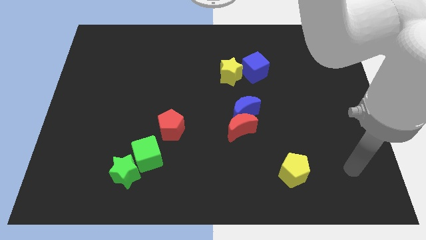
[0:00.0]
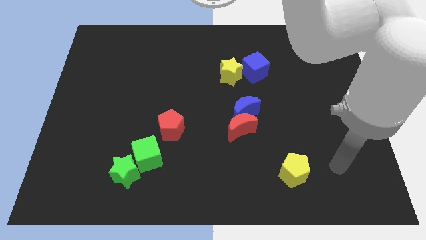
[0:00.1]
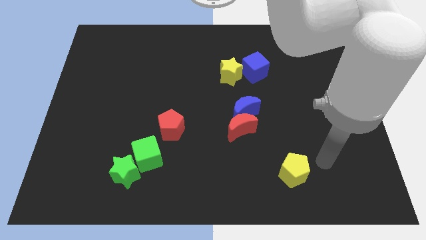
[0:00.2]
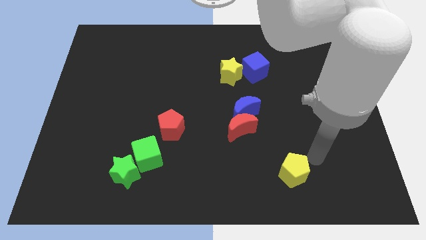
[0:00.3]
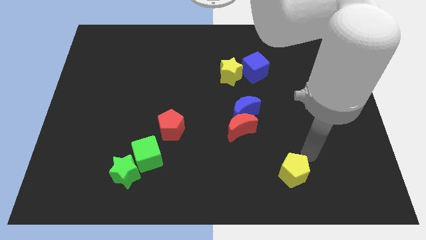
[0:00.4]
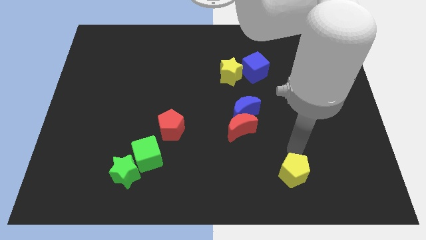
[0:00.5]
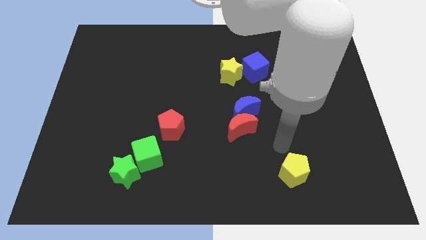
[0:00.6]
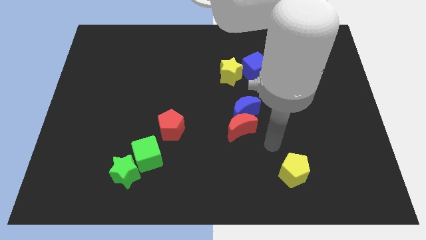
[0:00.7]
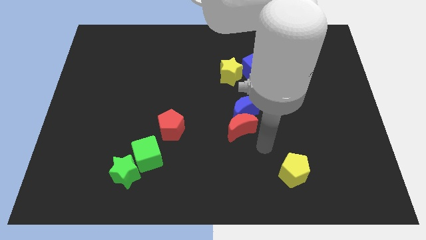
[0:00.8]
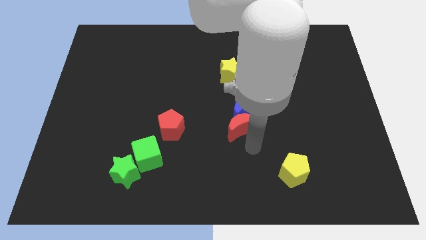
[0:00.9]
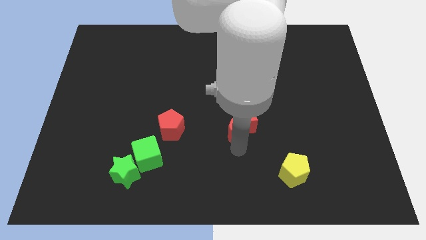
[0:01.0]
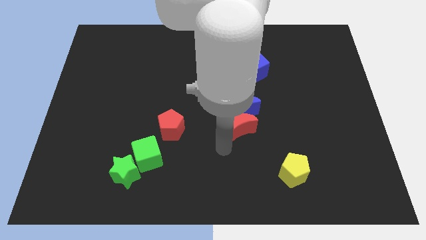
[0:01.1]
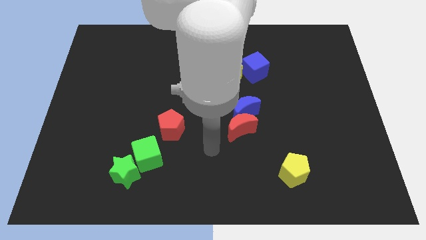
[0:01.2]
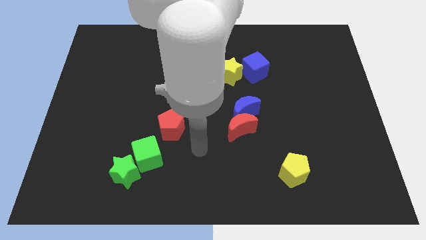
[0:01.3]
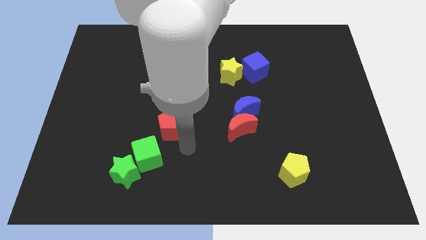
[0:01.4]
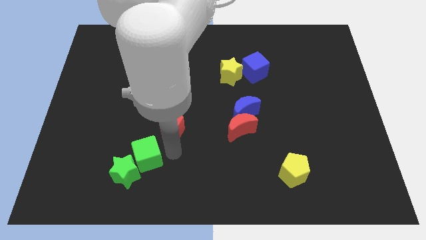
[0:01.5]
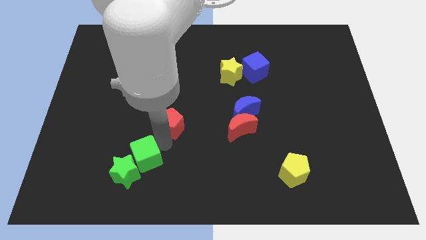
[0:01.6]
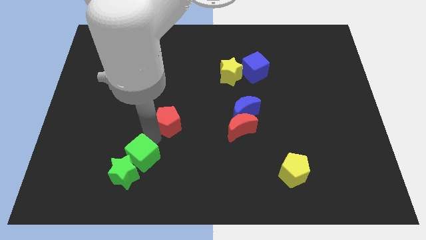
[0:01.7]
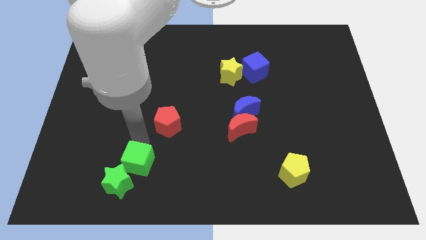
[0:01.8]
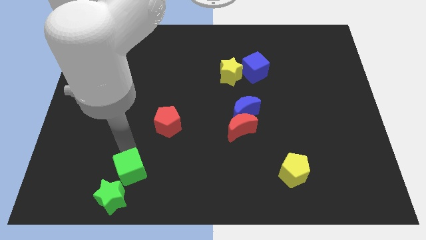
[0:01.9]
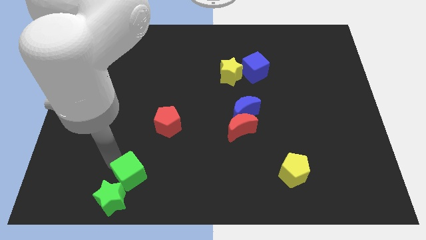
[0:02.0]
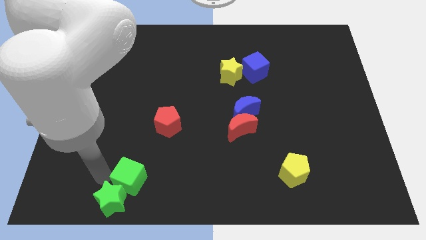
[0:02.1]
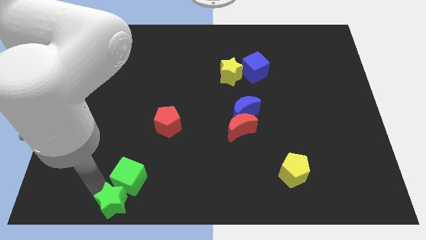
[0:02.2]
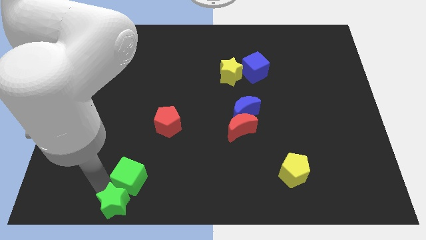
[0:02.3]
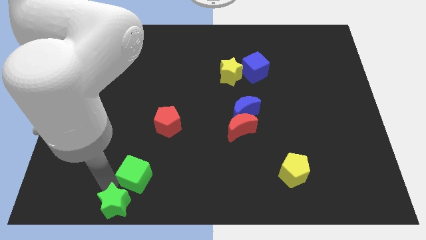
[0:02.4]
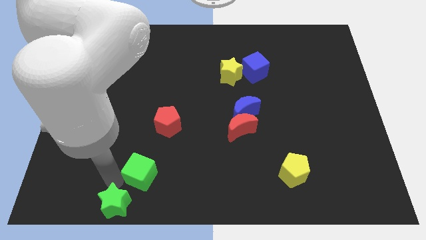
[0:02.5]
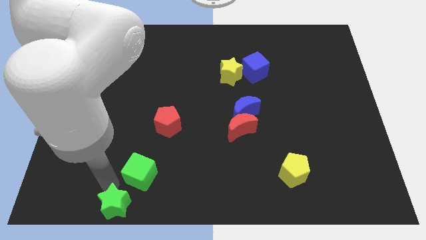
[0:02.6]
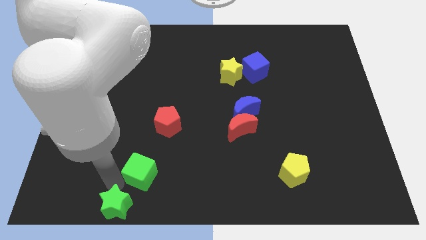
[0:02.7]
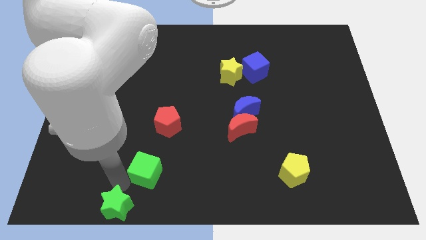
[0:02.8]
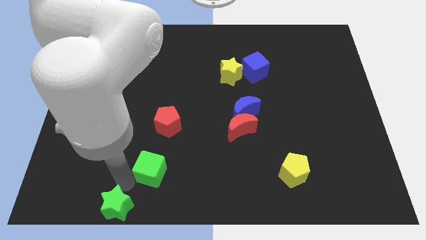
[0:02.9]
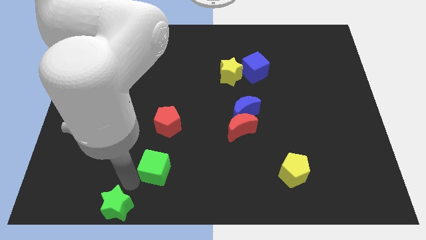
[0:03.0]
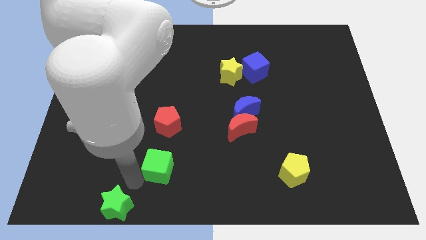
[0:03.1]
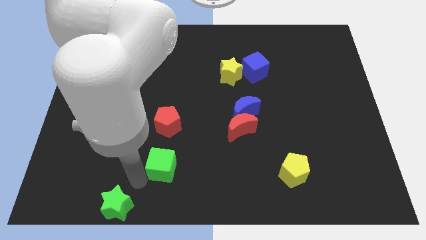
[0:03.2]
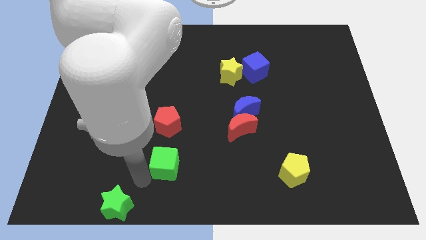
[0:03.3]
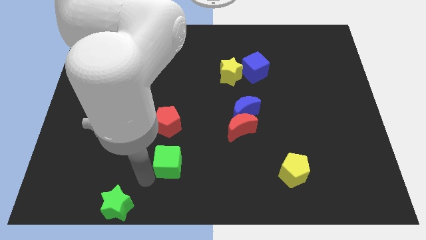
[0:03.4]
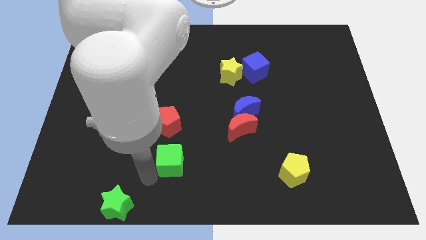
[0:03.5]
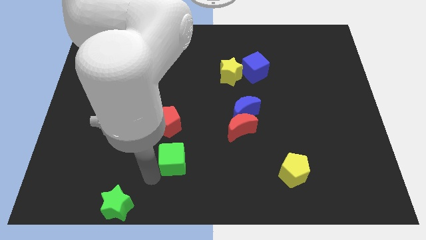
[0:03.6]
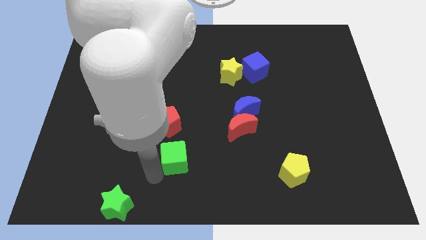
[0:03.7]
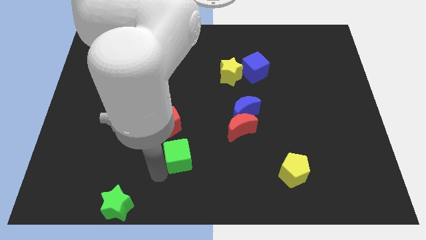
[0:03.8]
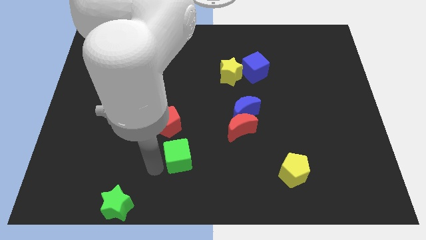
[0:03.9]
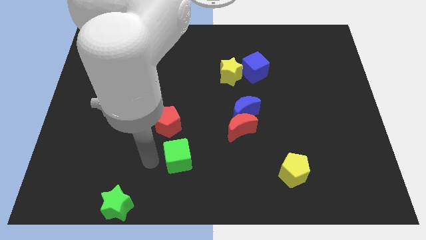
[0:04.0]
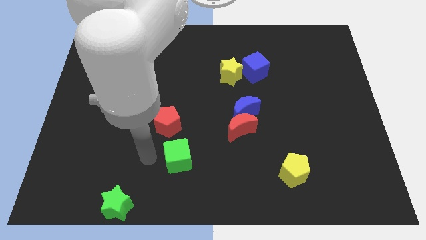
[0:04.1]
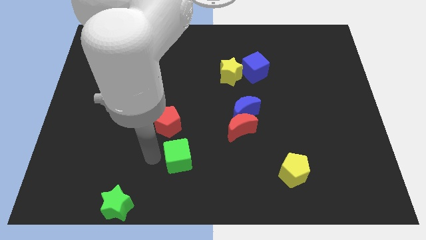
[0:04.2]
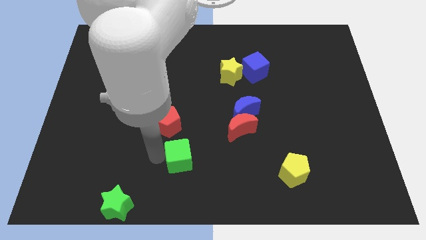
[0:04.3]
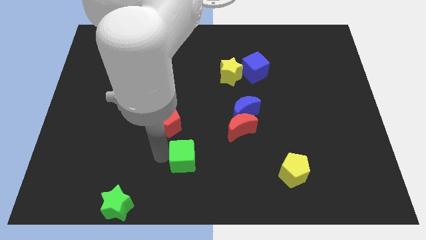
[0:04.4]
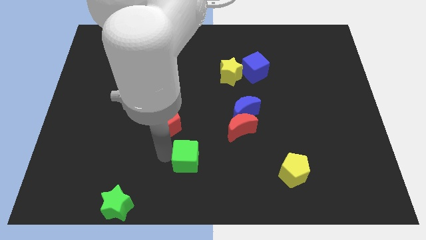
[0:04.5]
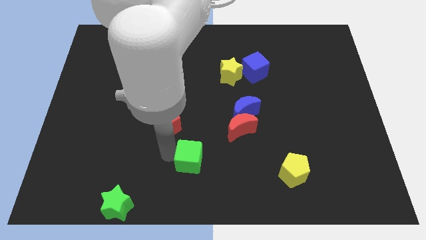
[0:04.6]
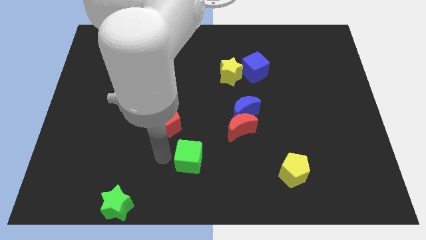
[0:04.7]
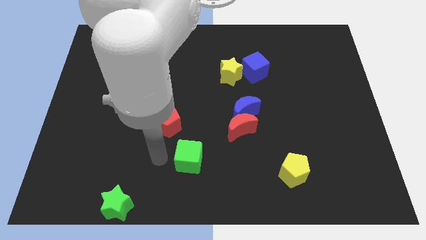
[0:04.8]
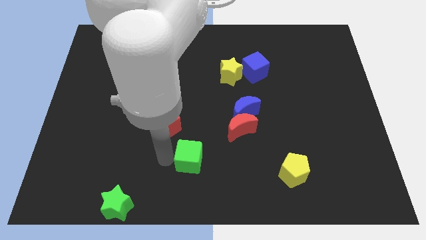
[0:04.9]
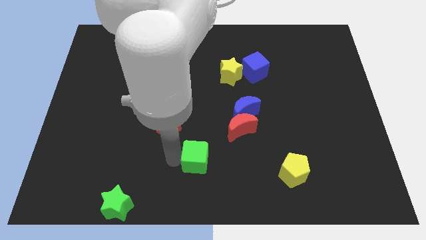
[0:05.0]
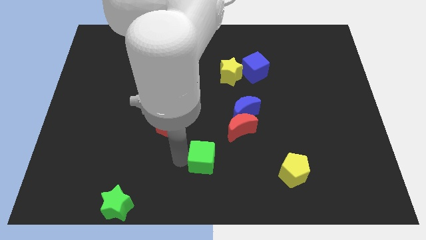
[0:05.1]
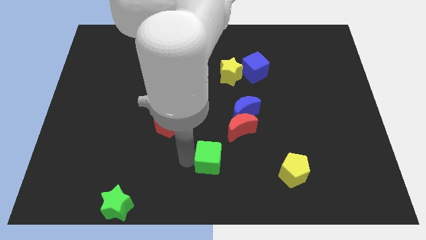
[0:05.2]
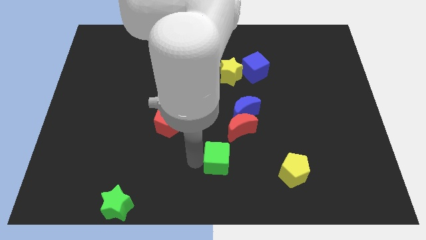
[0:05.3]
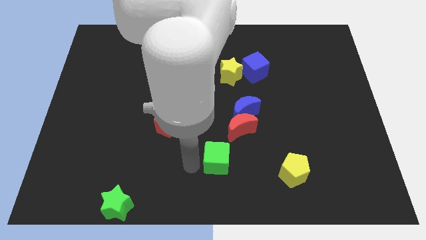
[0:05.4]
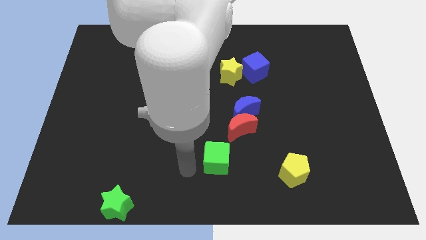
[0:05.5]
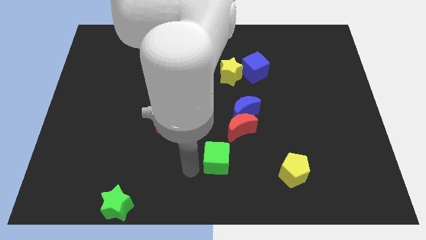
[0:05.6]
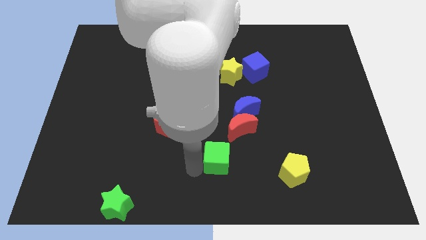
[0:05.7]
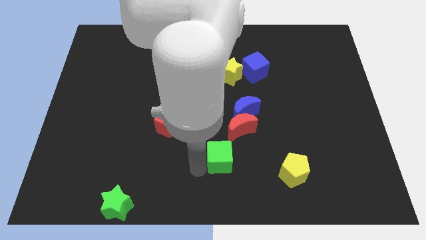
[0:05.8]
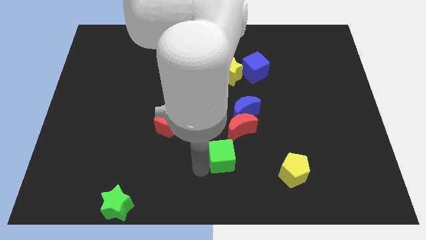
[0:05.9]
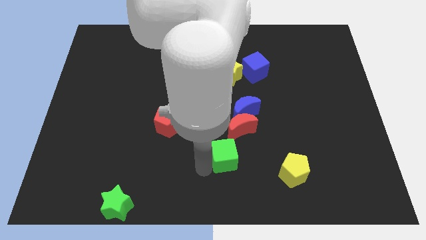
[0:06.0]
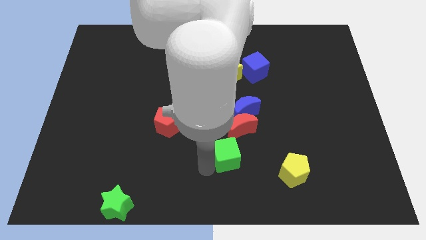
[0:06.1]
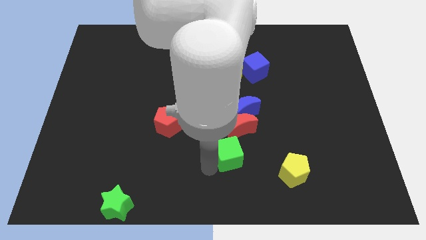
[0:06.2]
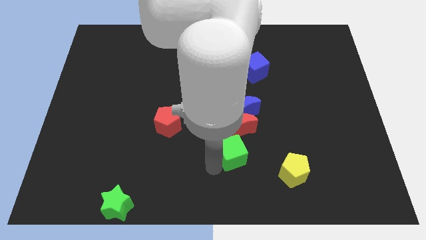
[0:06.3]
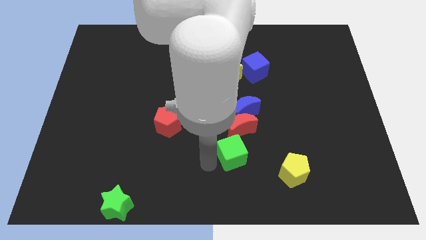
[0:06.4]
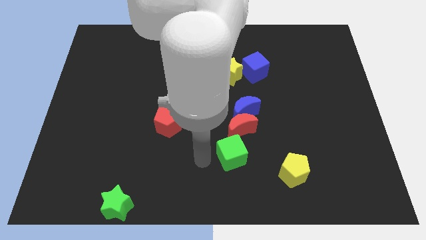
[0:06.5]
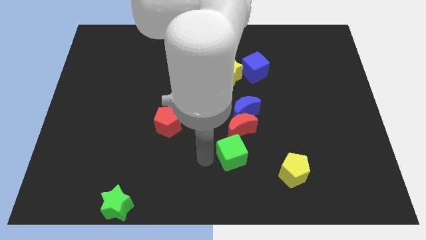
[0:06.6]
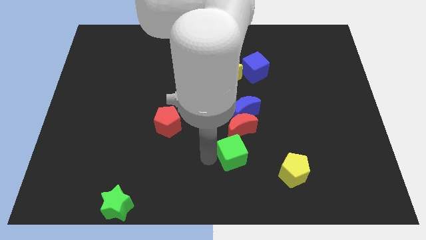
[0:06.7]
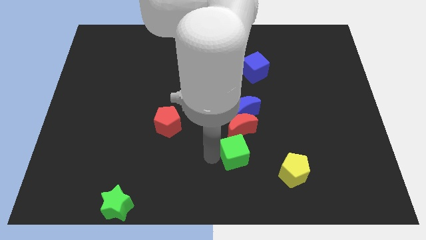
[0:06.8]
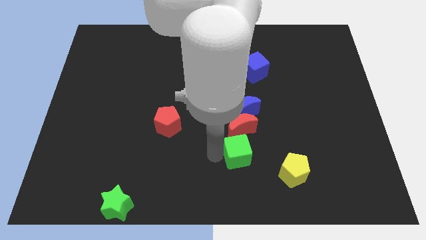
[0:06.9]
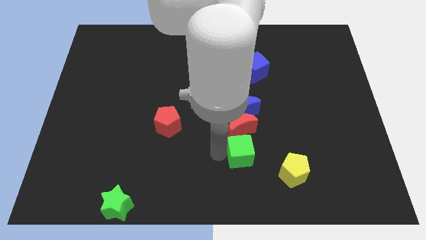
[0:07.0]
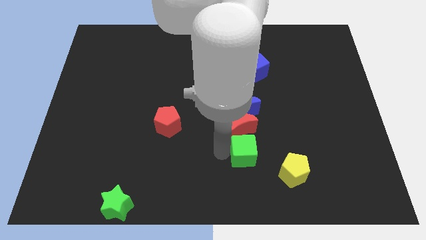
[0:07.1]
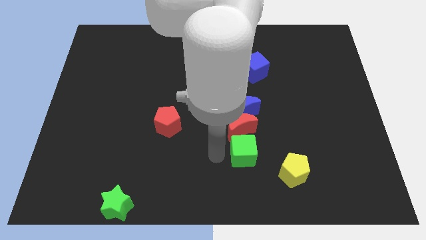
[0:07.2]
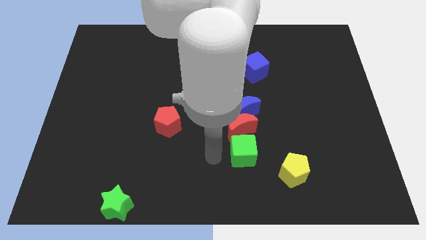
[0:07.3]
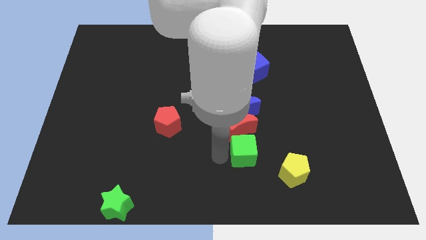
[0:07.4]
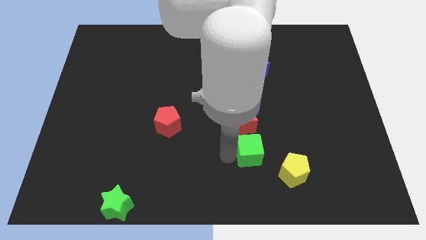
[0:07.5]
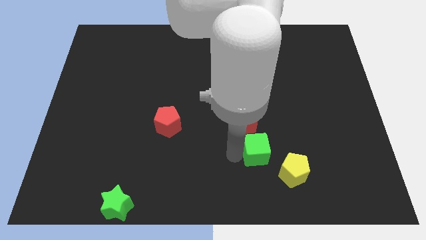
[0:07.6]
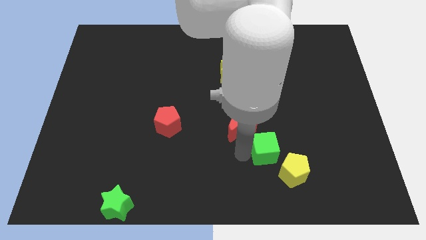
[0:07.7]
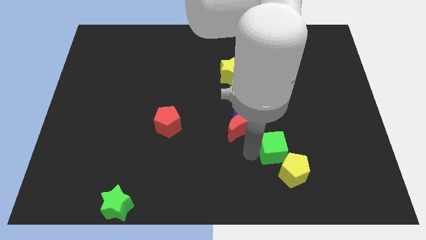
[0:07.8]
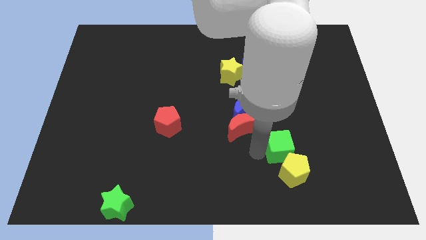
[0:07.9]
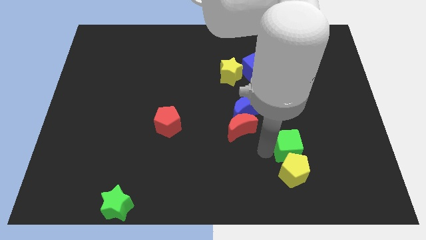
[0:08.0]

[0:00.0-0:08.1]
slide the green cube to the top right side of the yellow pentagon
